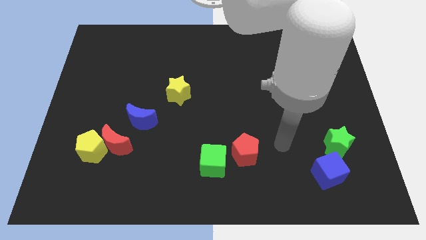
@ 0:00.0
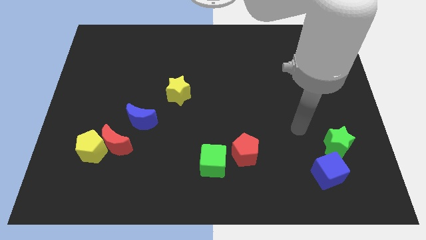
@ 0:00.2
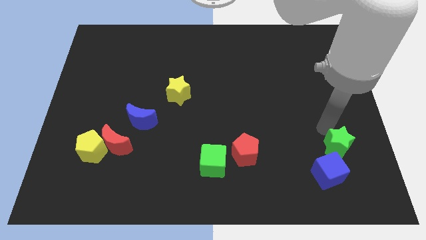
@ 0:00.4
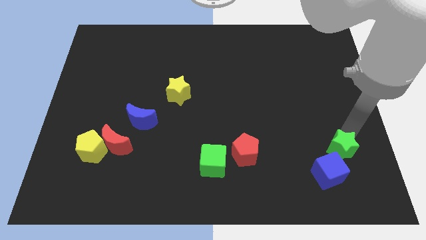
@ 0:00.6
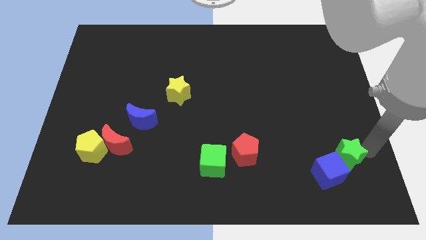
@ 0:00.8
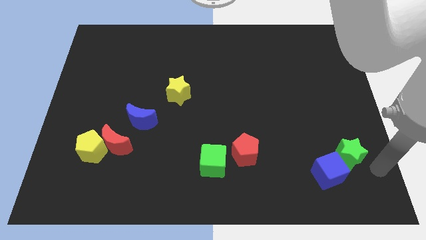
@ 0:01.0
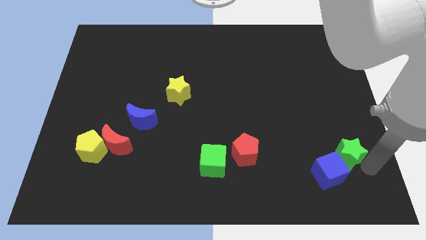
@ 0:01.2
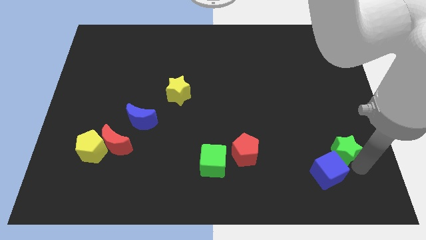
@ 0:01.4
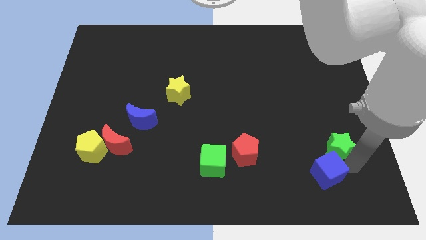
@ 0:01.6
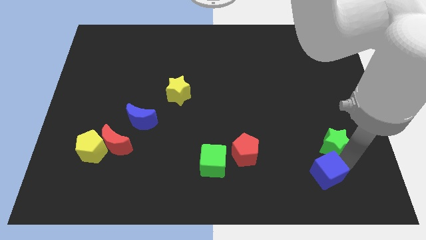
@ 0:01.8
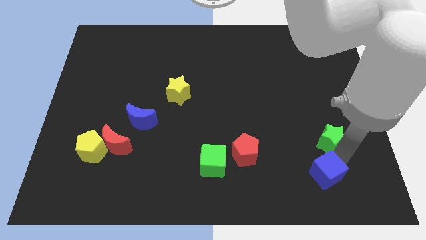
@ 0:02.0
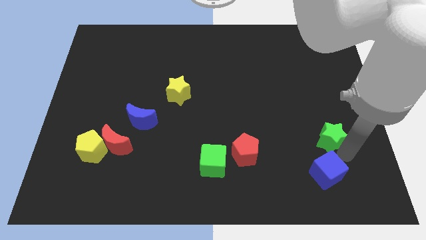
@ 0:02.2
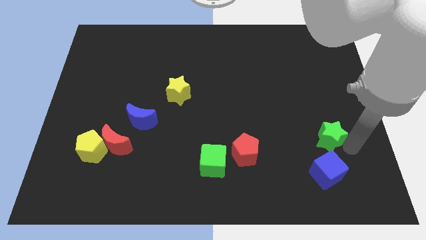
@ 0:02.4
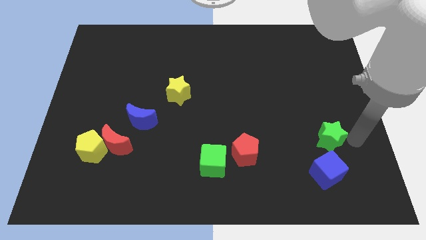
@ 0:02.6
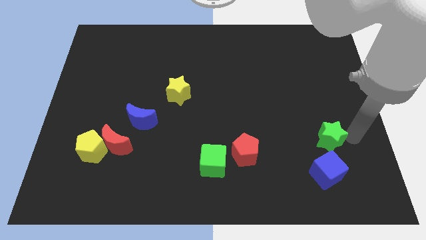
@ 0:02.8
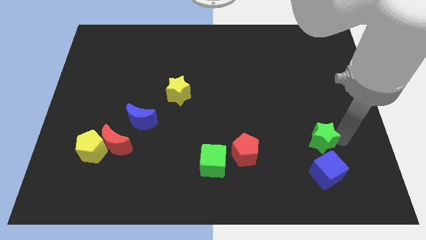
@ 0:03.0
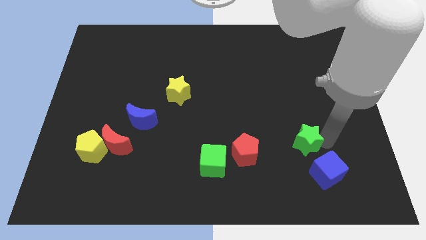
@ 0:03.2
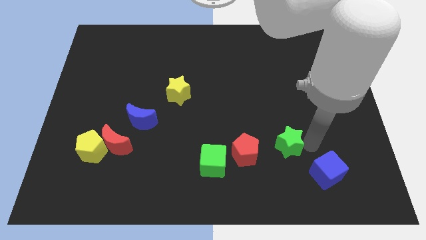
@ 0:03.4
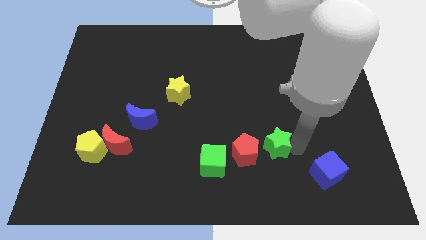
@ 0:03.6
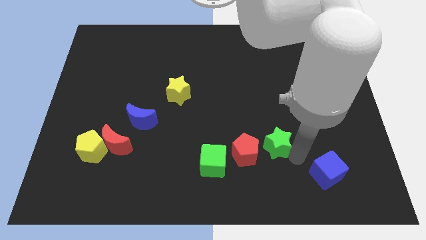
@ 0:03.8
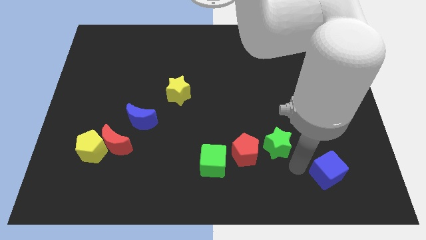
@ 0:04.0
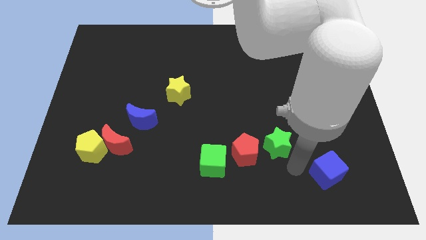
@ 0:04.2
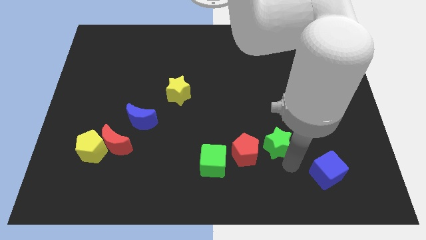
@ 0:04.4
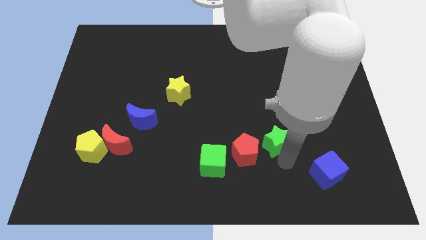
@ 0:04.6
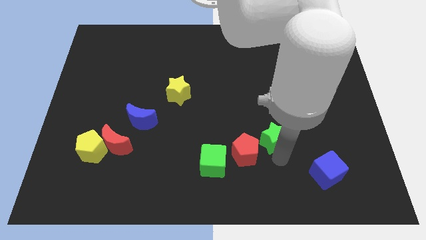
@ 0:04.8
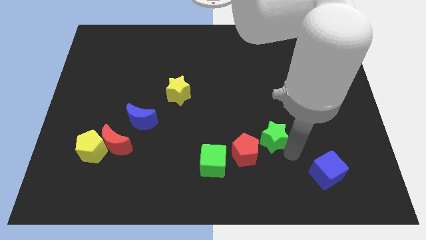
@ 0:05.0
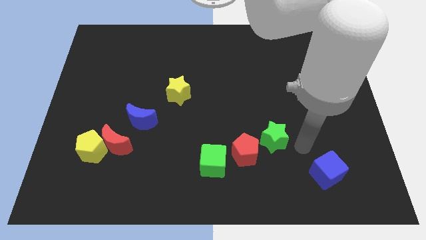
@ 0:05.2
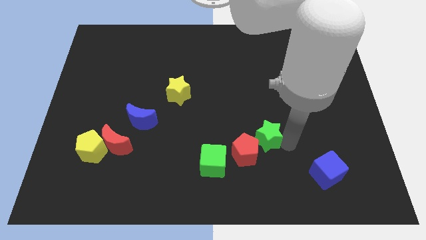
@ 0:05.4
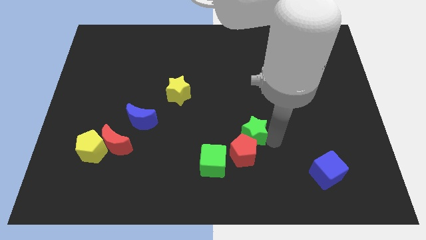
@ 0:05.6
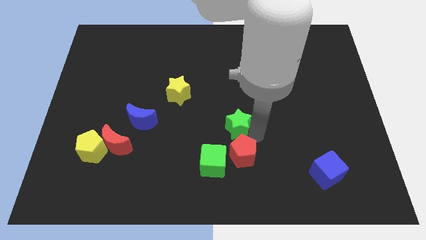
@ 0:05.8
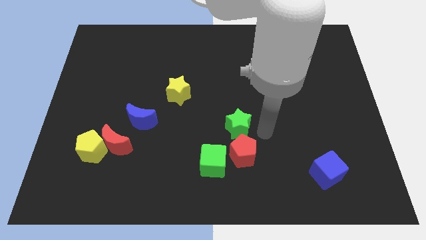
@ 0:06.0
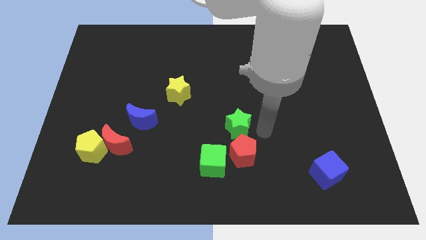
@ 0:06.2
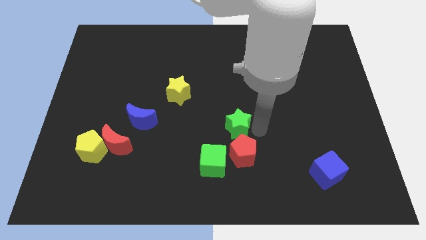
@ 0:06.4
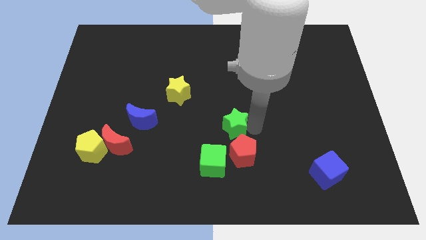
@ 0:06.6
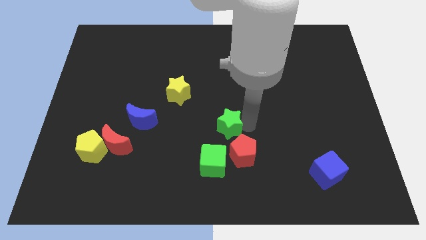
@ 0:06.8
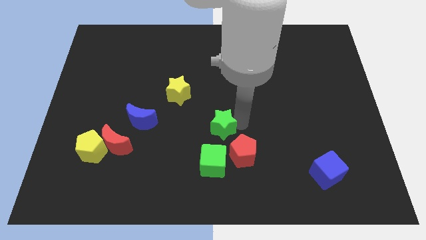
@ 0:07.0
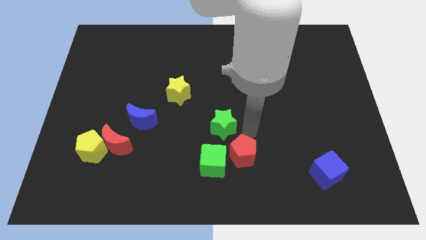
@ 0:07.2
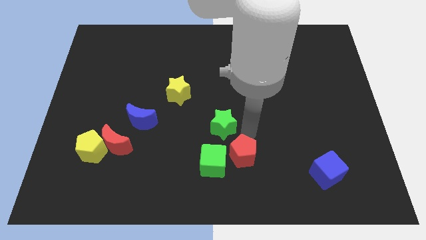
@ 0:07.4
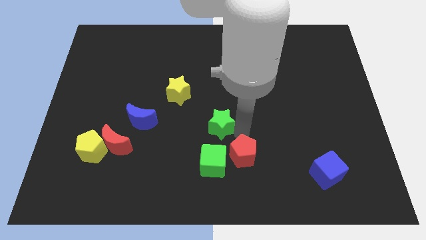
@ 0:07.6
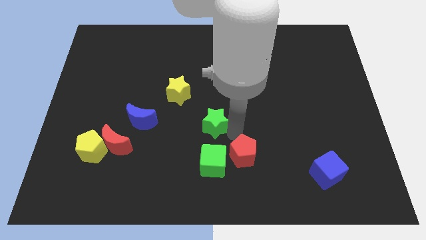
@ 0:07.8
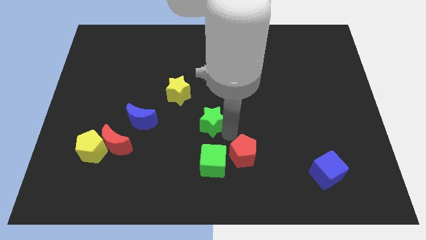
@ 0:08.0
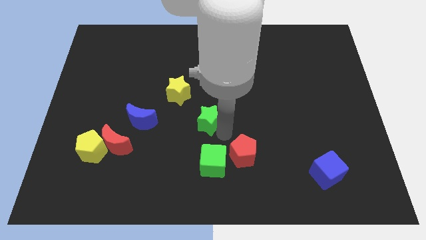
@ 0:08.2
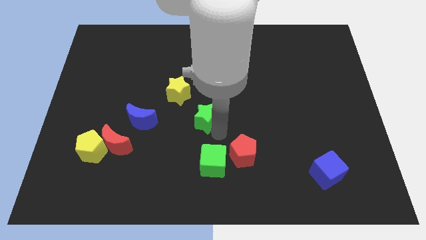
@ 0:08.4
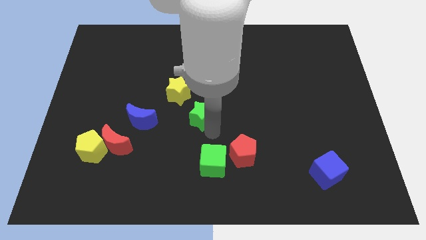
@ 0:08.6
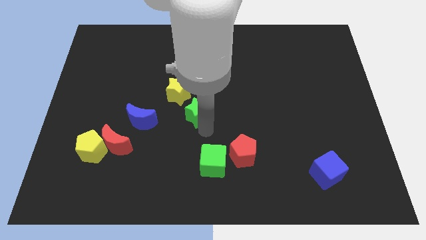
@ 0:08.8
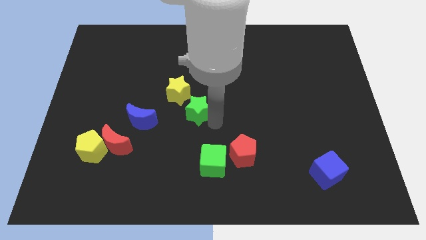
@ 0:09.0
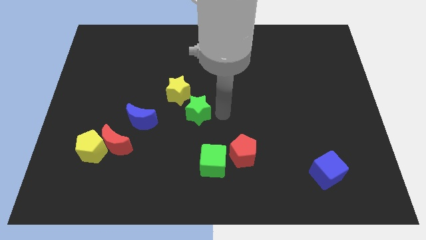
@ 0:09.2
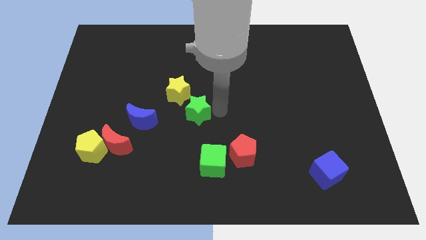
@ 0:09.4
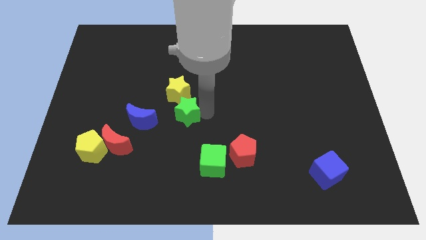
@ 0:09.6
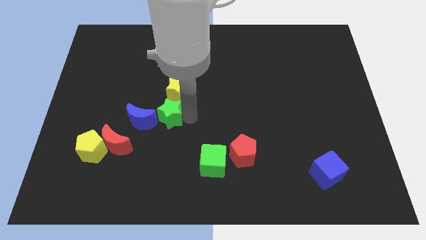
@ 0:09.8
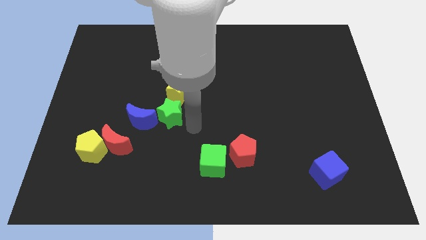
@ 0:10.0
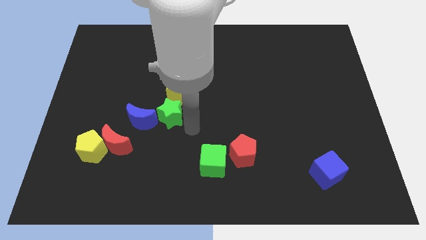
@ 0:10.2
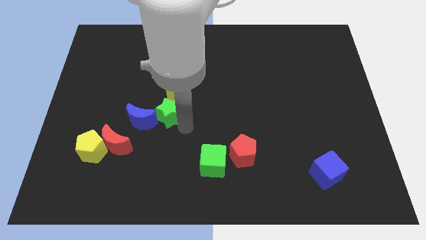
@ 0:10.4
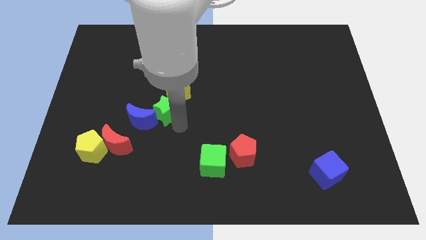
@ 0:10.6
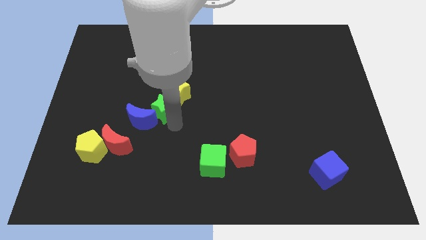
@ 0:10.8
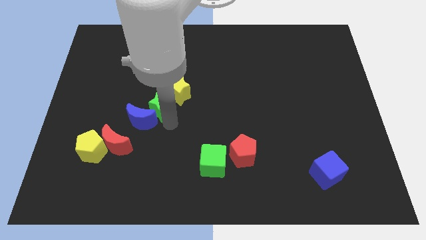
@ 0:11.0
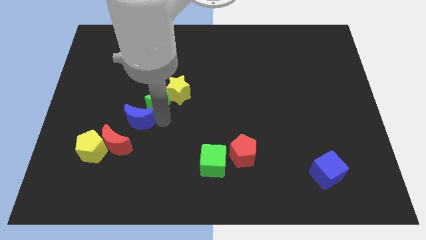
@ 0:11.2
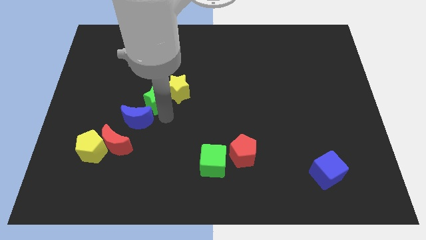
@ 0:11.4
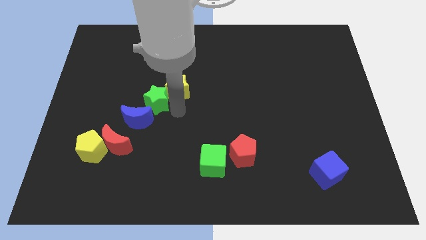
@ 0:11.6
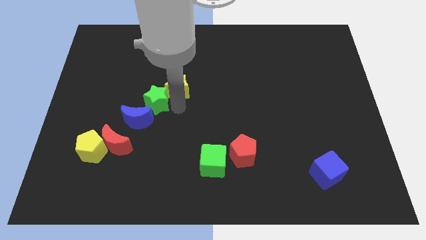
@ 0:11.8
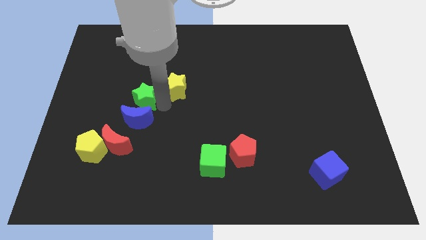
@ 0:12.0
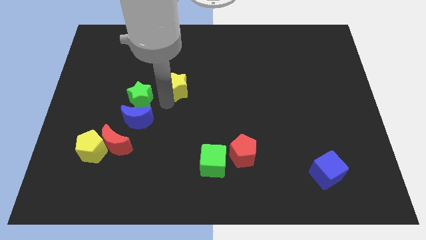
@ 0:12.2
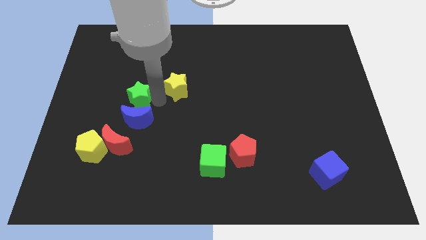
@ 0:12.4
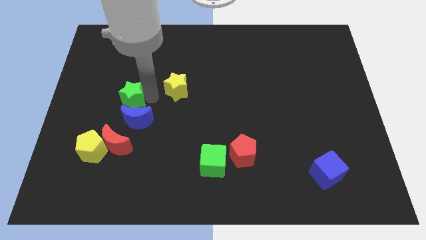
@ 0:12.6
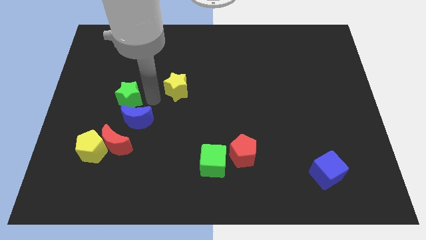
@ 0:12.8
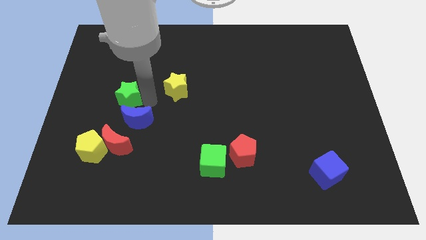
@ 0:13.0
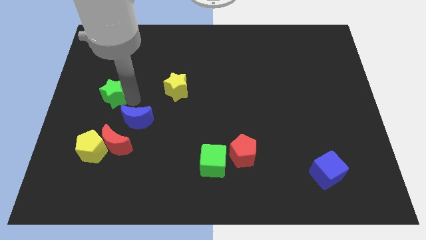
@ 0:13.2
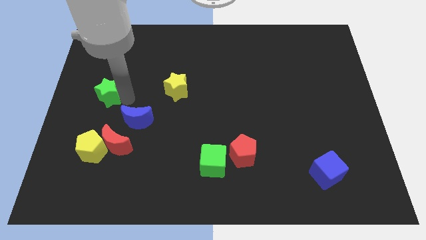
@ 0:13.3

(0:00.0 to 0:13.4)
push the green star to the left side
